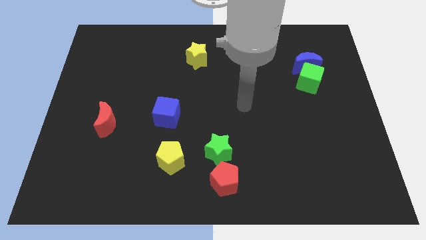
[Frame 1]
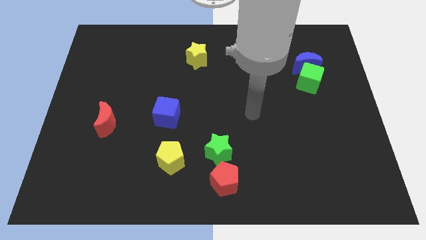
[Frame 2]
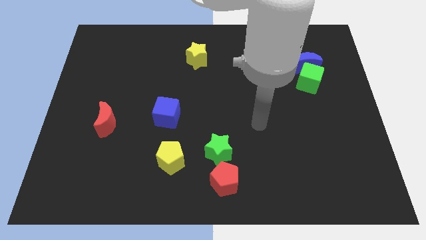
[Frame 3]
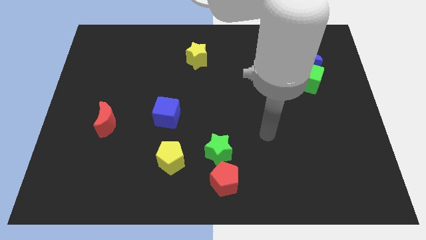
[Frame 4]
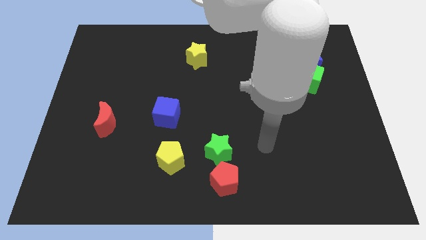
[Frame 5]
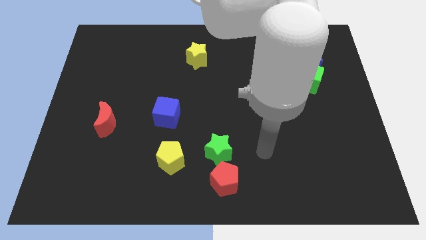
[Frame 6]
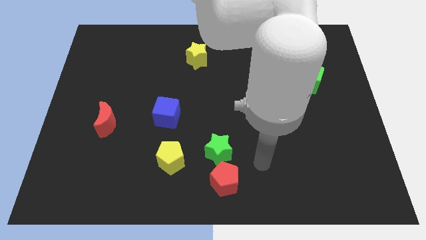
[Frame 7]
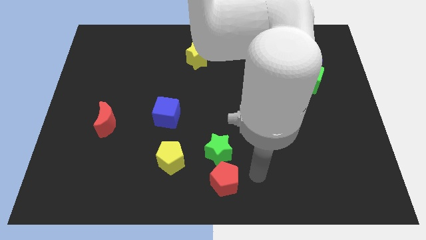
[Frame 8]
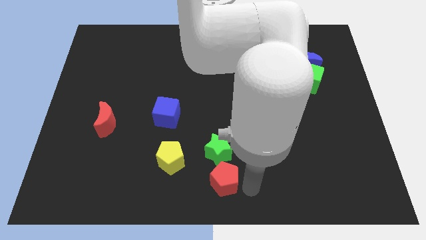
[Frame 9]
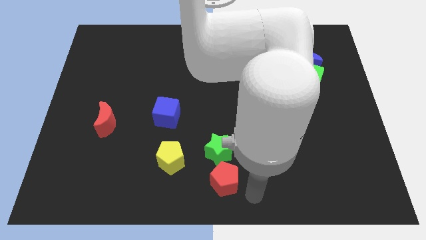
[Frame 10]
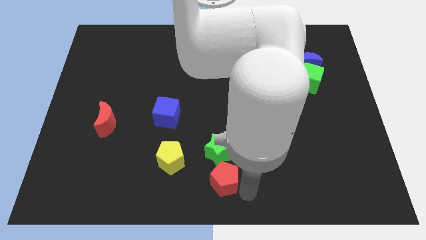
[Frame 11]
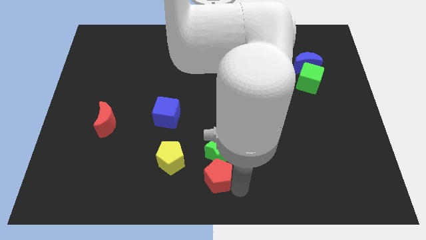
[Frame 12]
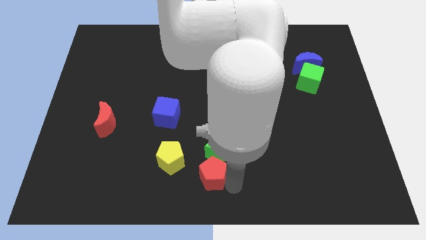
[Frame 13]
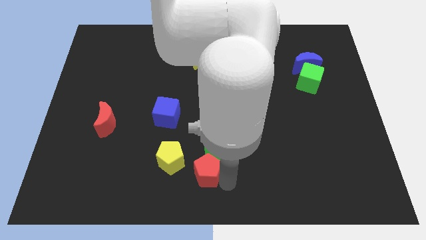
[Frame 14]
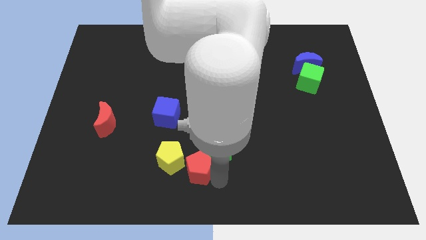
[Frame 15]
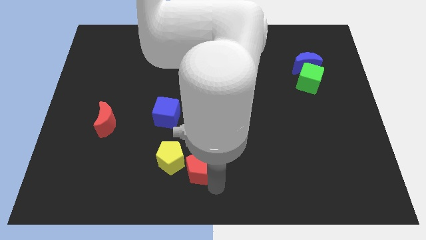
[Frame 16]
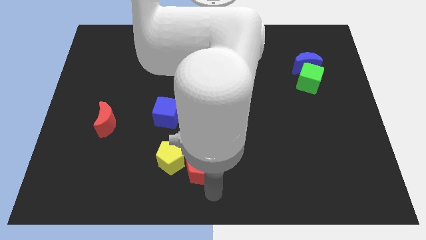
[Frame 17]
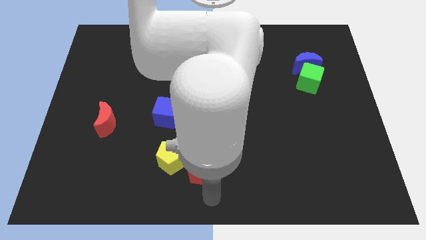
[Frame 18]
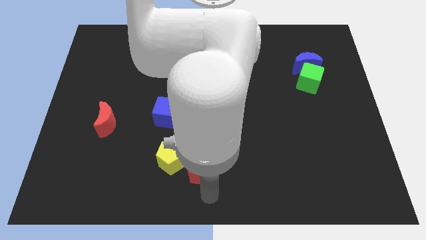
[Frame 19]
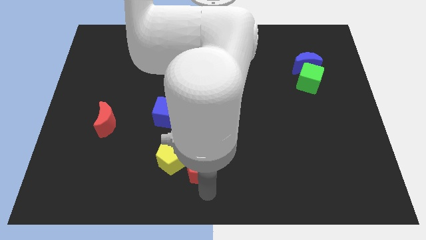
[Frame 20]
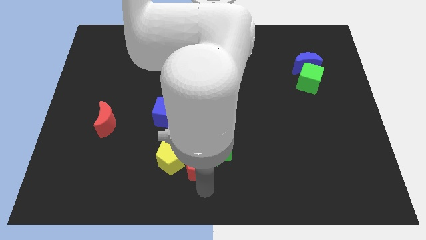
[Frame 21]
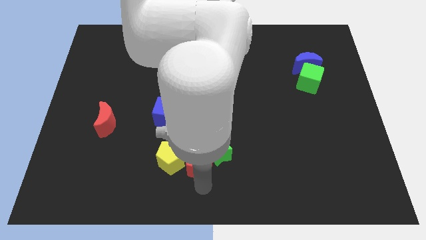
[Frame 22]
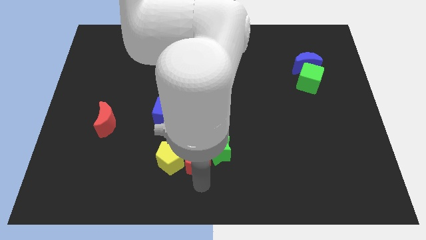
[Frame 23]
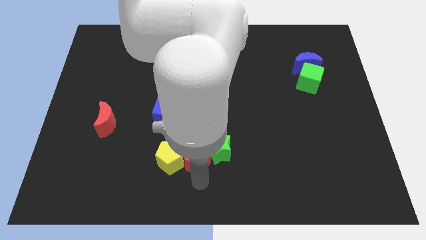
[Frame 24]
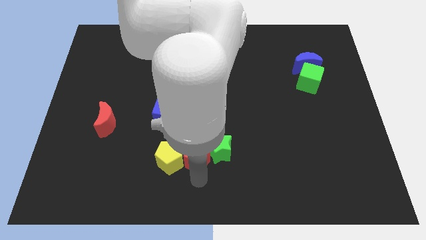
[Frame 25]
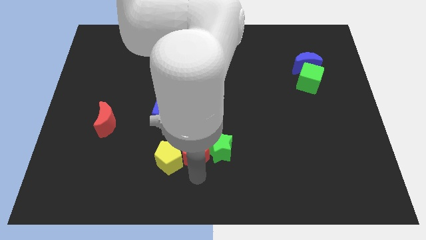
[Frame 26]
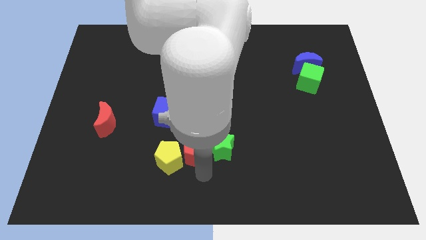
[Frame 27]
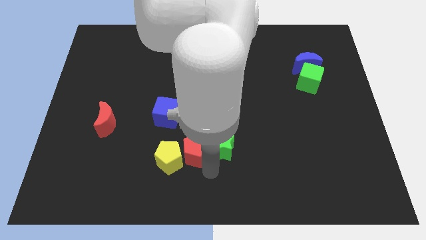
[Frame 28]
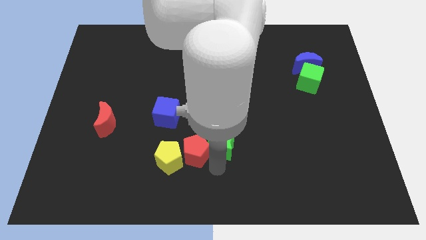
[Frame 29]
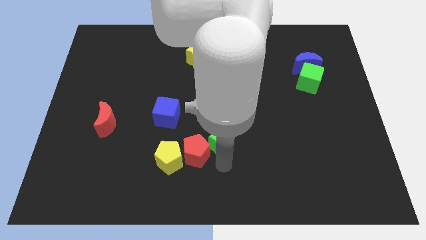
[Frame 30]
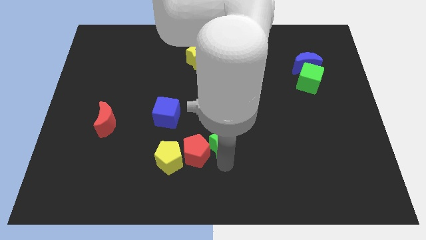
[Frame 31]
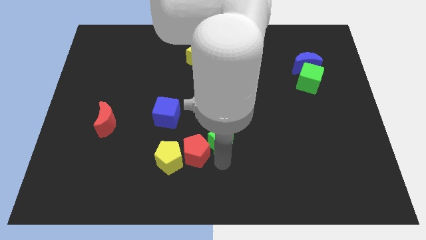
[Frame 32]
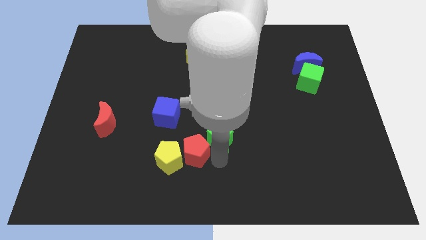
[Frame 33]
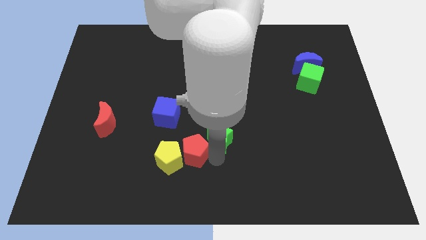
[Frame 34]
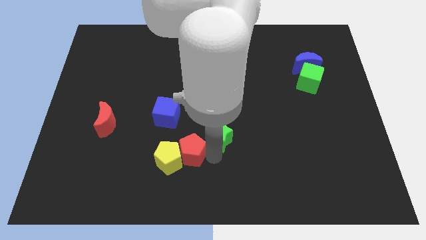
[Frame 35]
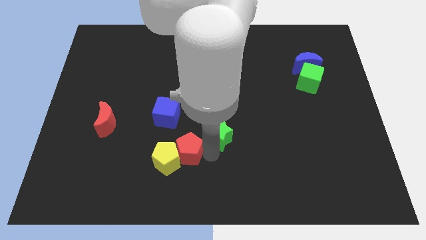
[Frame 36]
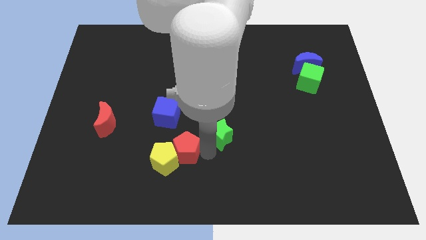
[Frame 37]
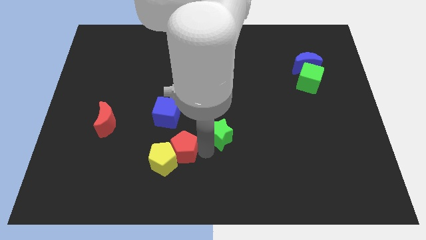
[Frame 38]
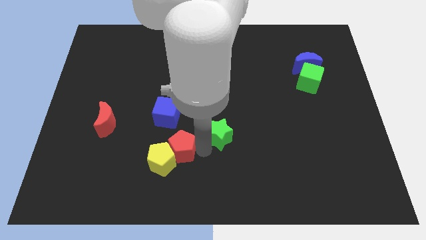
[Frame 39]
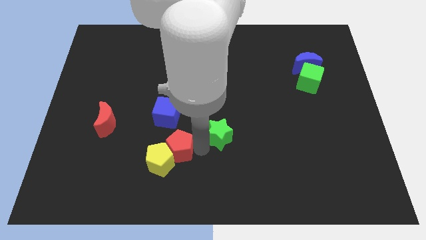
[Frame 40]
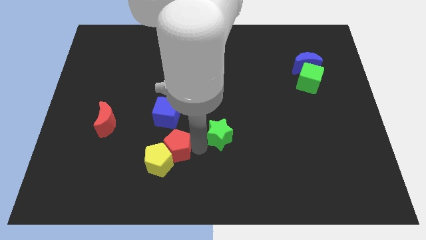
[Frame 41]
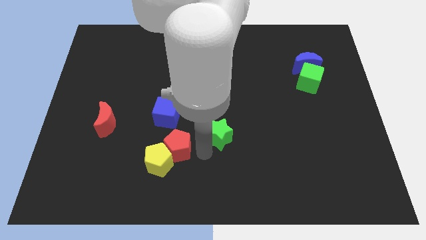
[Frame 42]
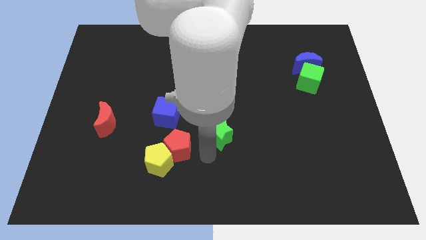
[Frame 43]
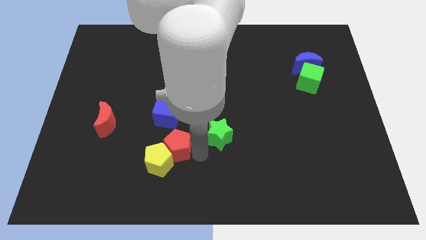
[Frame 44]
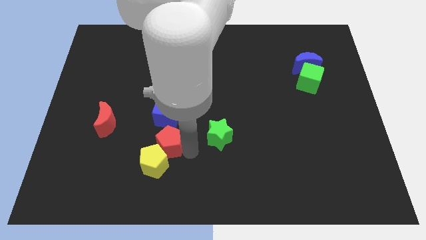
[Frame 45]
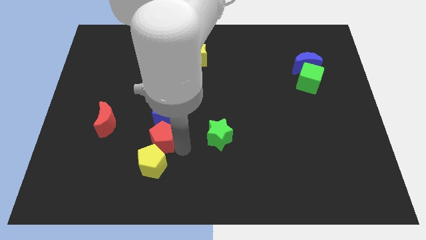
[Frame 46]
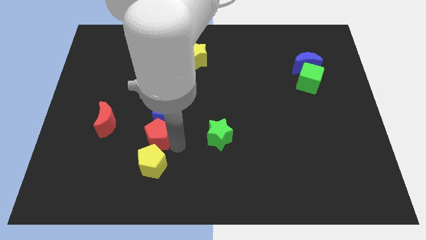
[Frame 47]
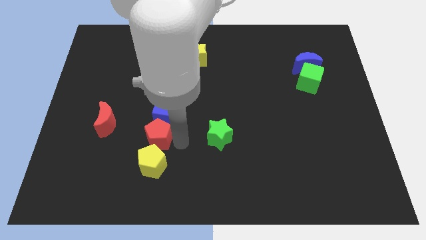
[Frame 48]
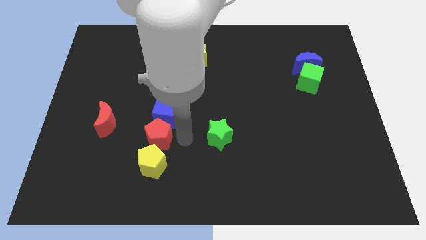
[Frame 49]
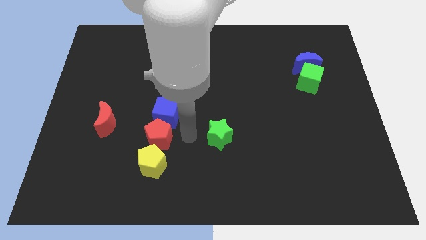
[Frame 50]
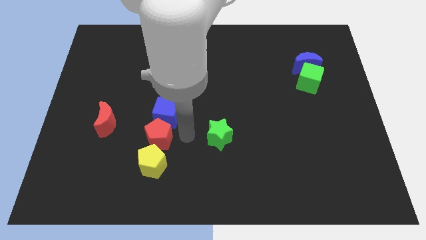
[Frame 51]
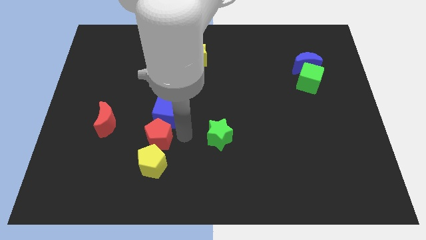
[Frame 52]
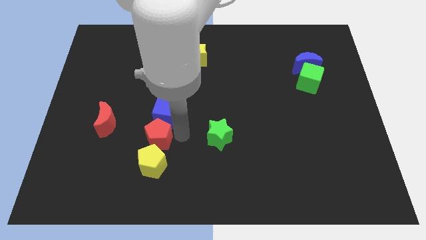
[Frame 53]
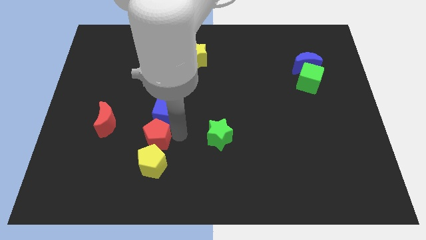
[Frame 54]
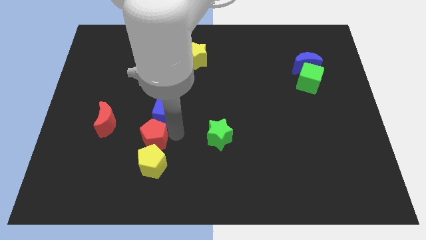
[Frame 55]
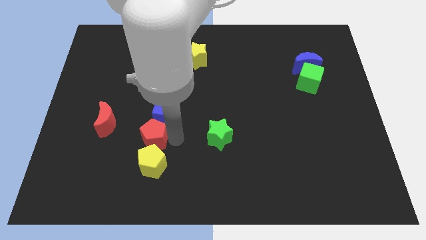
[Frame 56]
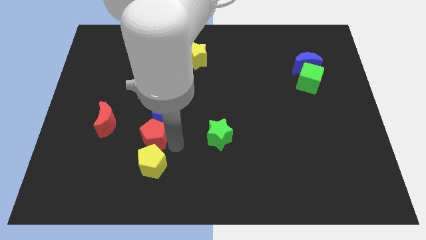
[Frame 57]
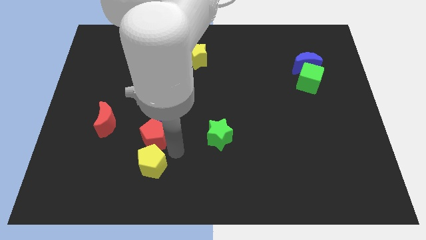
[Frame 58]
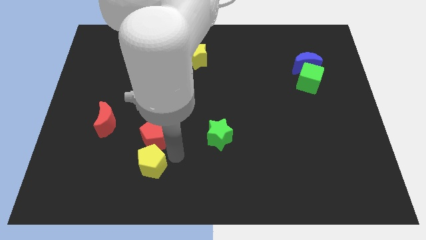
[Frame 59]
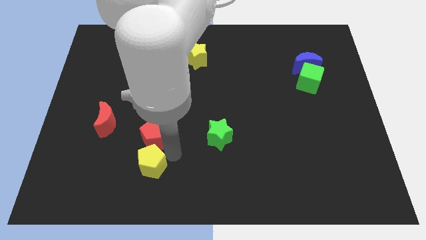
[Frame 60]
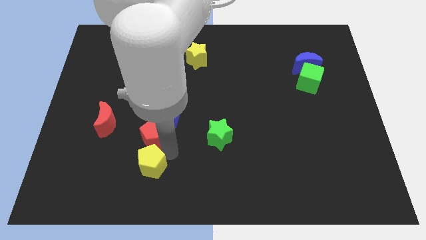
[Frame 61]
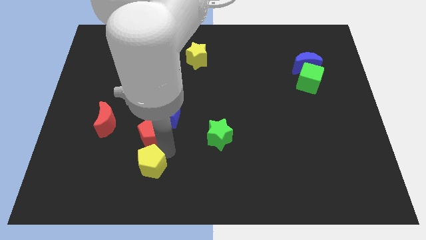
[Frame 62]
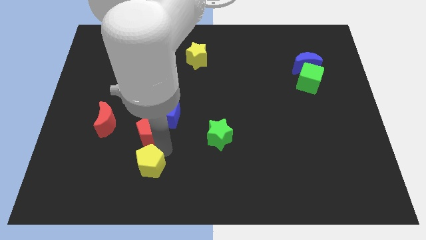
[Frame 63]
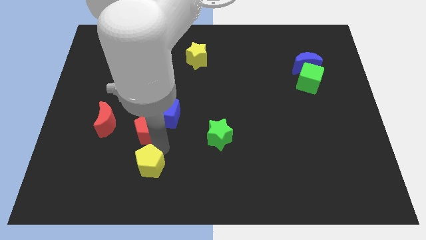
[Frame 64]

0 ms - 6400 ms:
push the red pentagon up and left diagonally

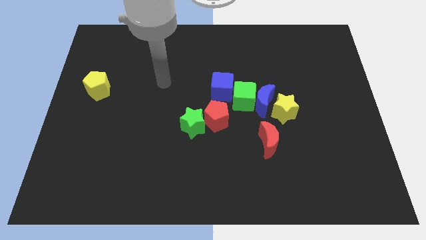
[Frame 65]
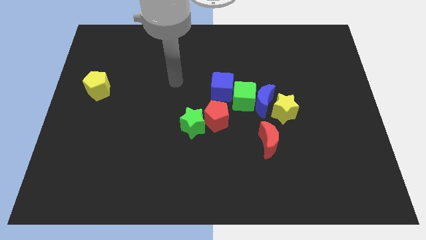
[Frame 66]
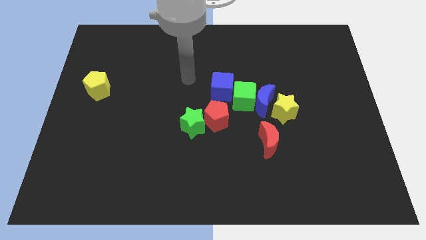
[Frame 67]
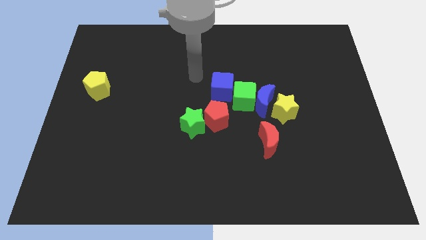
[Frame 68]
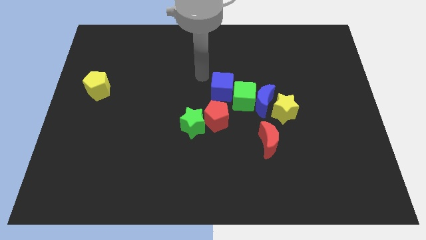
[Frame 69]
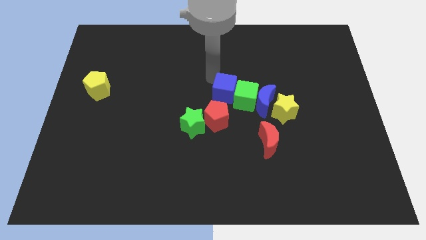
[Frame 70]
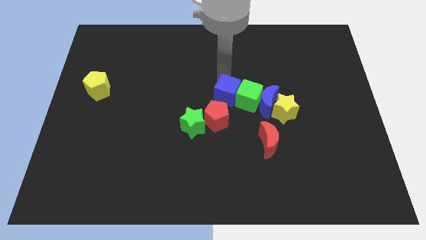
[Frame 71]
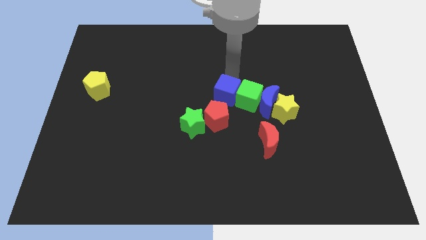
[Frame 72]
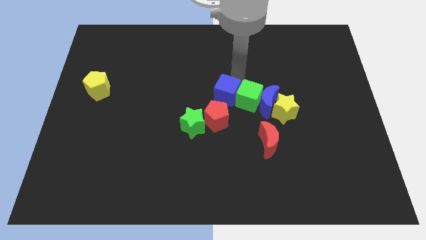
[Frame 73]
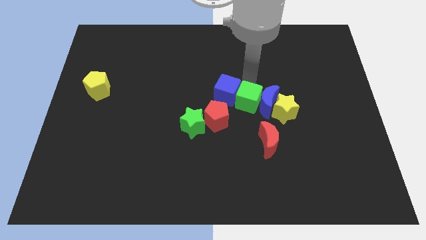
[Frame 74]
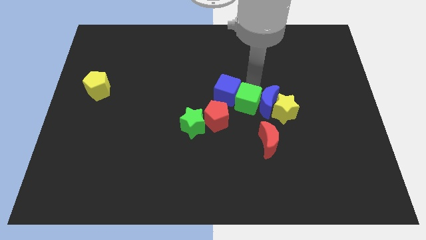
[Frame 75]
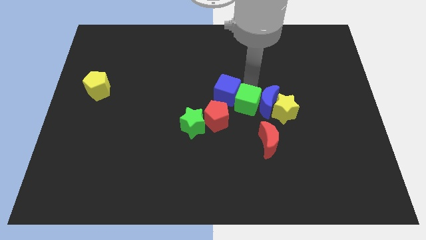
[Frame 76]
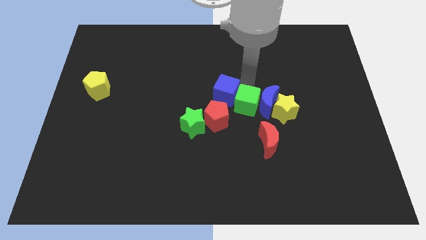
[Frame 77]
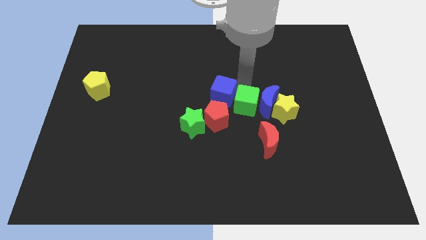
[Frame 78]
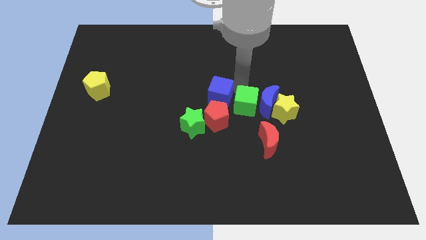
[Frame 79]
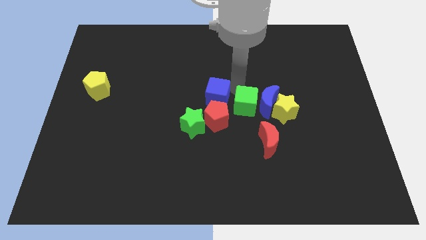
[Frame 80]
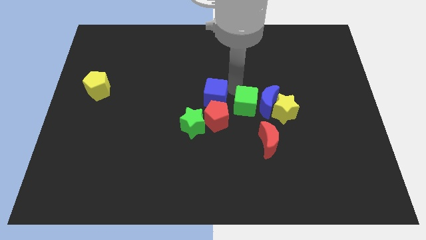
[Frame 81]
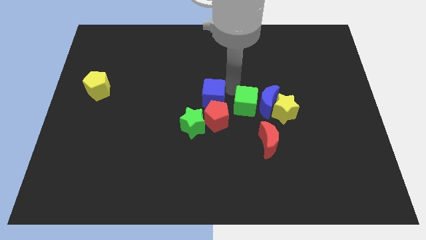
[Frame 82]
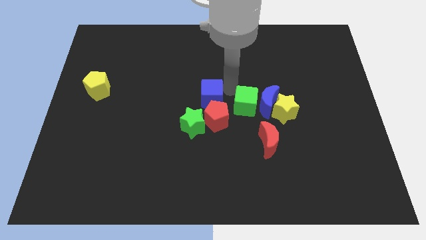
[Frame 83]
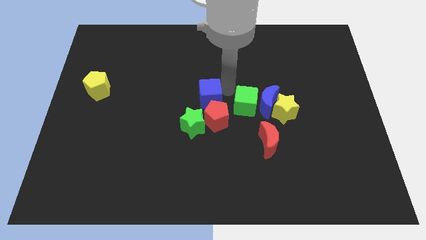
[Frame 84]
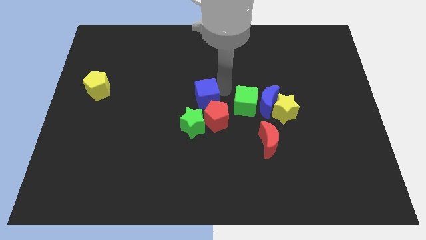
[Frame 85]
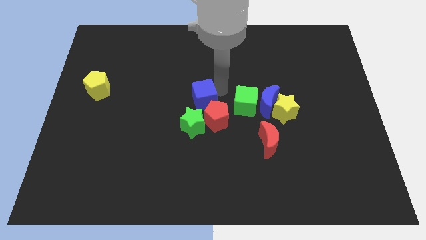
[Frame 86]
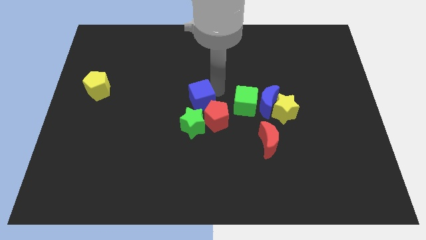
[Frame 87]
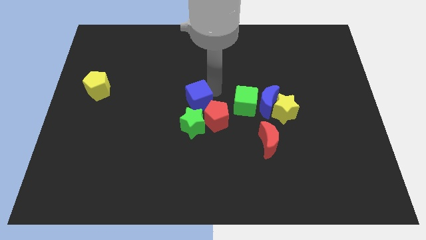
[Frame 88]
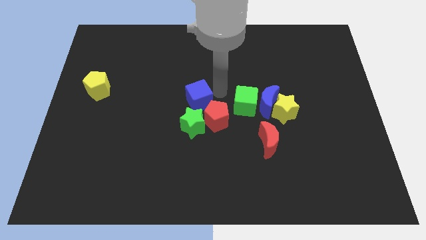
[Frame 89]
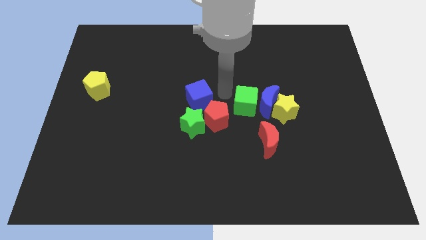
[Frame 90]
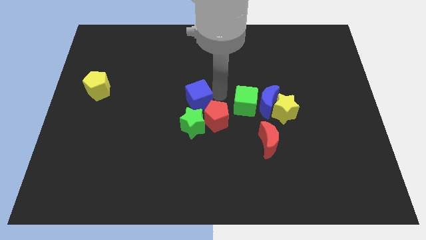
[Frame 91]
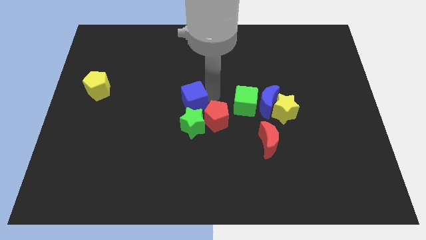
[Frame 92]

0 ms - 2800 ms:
move the blue cube a little bit downwards and to the left
